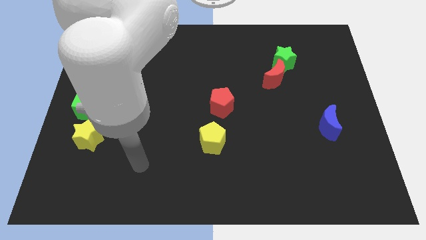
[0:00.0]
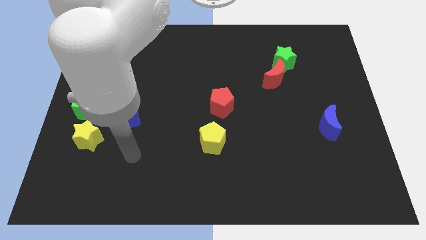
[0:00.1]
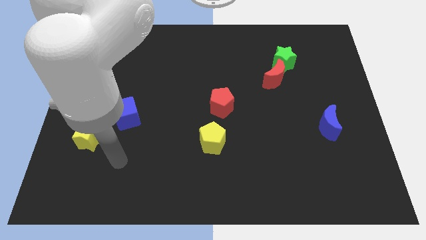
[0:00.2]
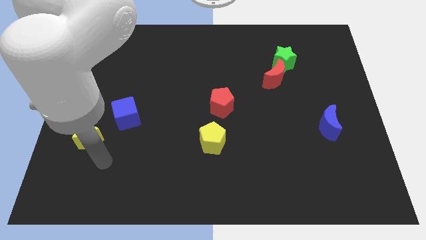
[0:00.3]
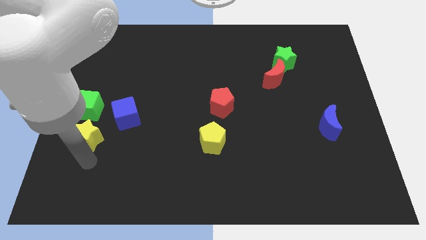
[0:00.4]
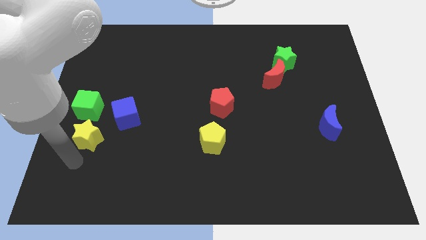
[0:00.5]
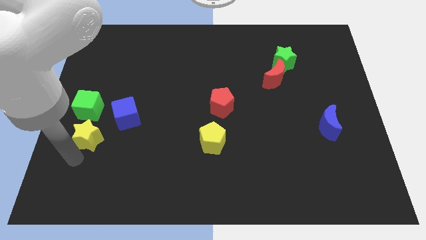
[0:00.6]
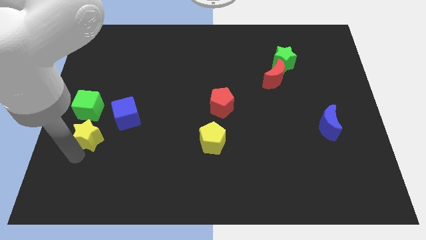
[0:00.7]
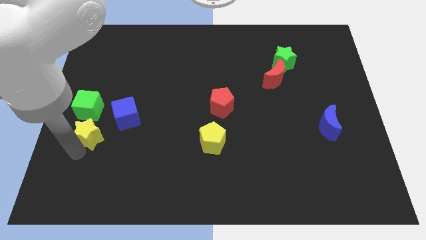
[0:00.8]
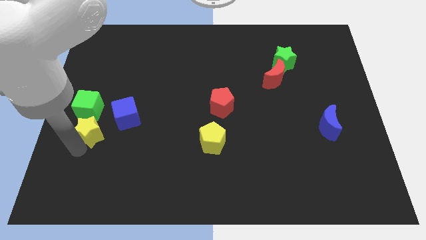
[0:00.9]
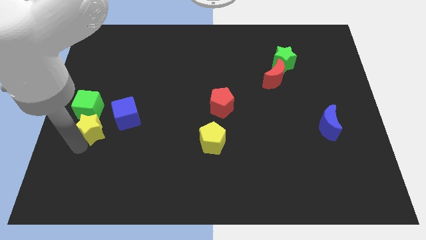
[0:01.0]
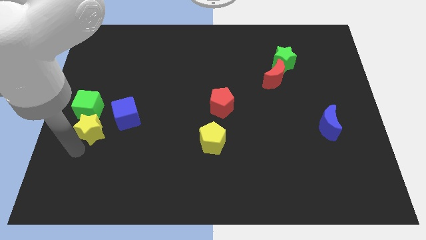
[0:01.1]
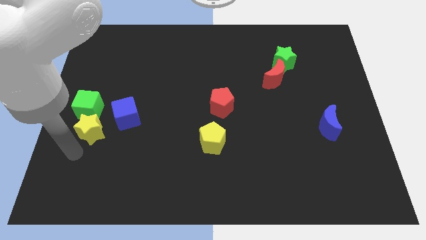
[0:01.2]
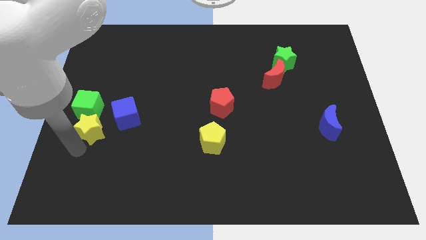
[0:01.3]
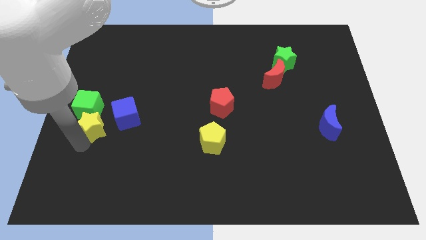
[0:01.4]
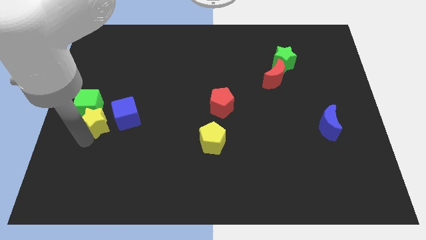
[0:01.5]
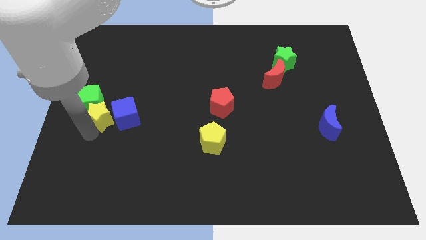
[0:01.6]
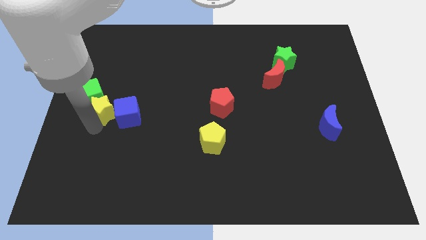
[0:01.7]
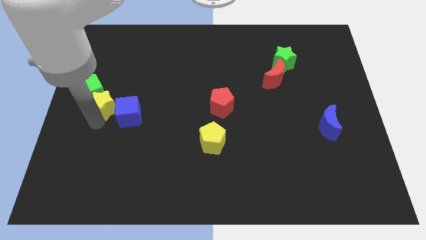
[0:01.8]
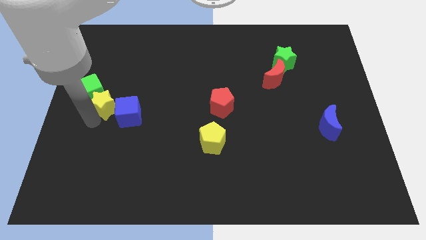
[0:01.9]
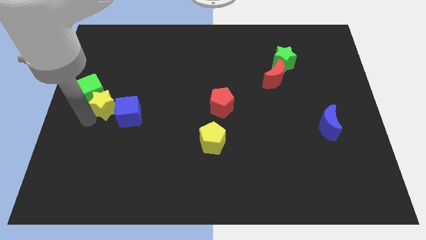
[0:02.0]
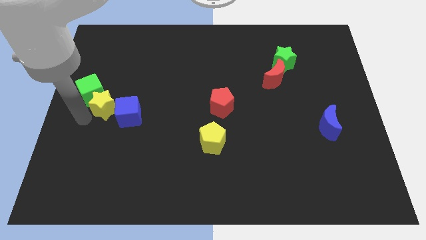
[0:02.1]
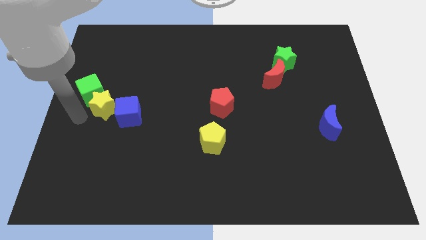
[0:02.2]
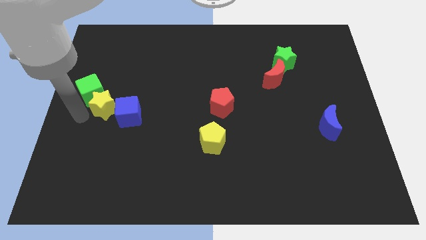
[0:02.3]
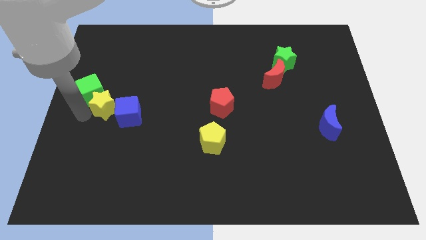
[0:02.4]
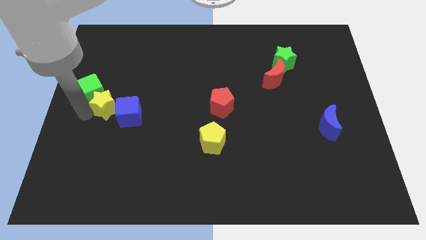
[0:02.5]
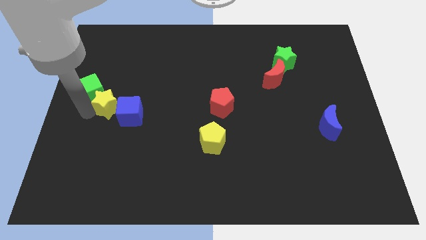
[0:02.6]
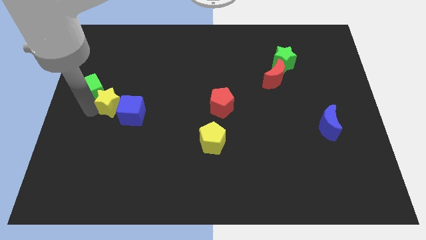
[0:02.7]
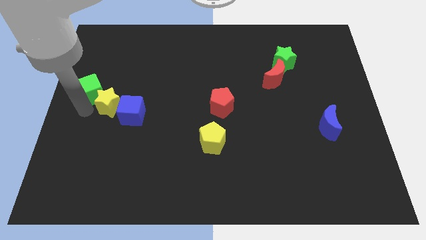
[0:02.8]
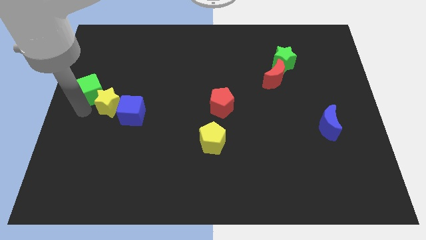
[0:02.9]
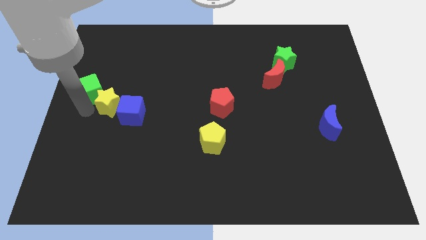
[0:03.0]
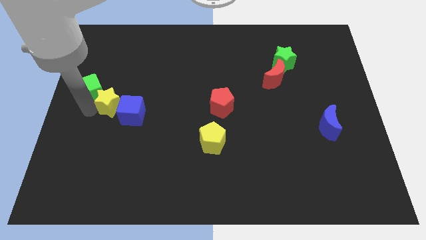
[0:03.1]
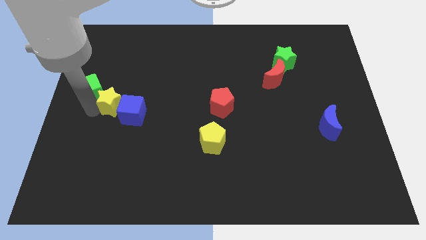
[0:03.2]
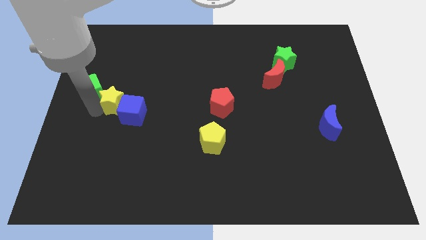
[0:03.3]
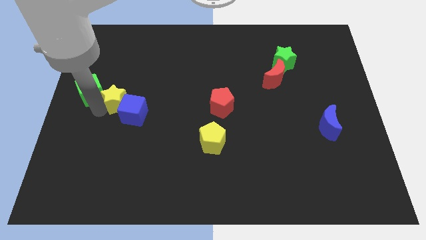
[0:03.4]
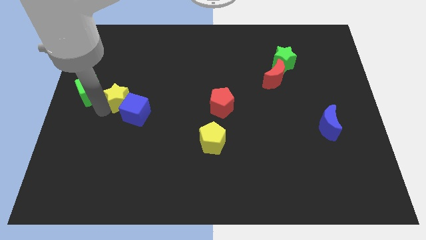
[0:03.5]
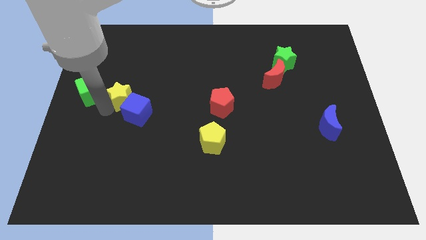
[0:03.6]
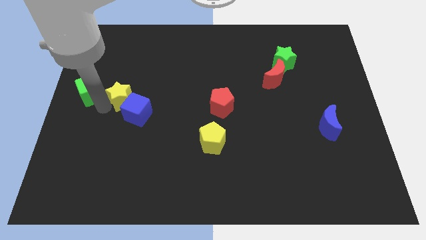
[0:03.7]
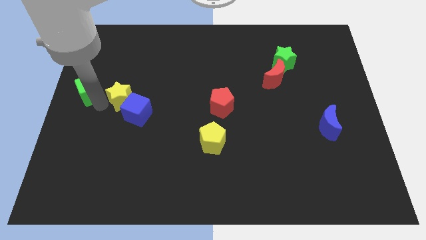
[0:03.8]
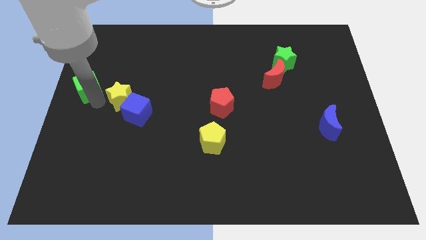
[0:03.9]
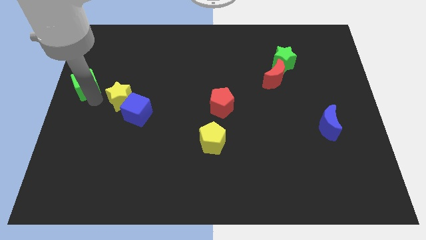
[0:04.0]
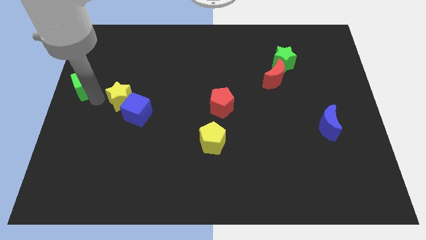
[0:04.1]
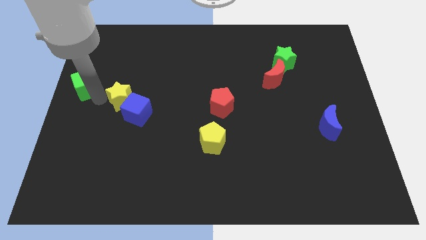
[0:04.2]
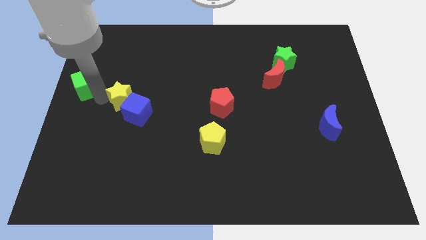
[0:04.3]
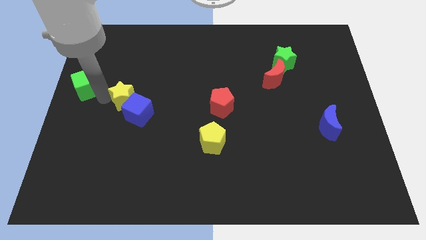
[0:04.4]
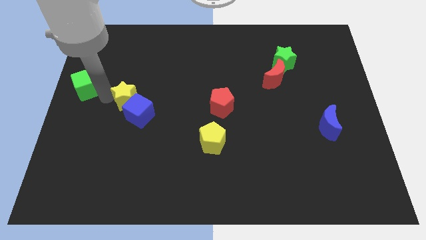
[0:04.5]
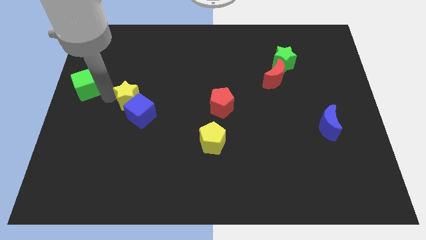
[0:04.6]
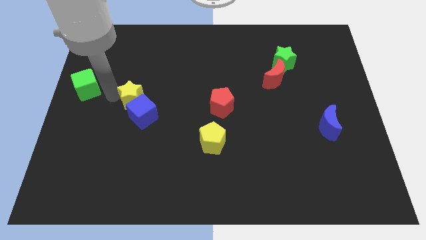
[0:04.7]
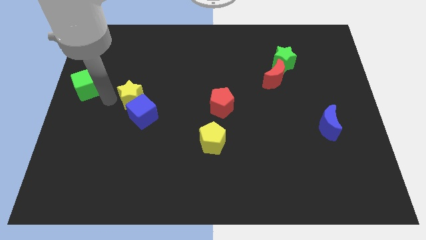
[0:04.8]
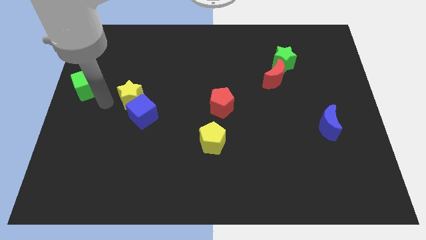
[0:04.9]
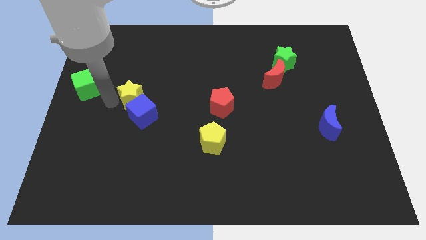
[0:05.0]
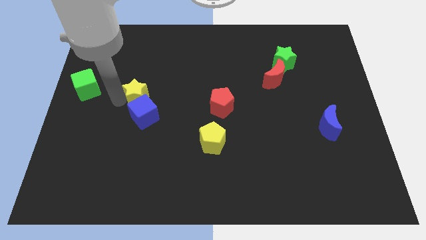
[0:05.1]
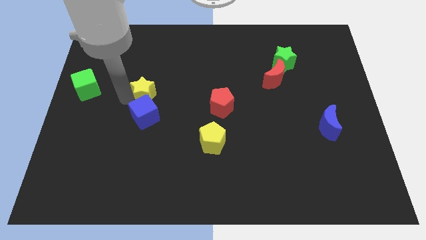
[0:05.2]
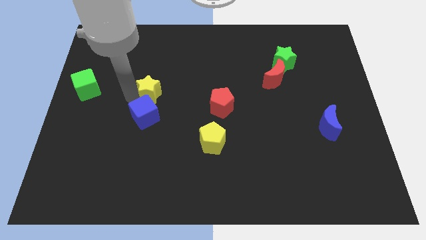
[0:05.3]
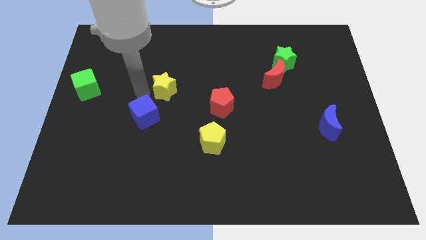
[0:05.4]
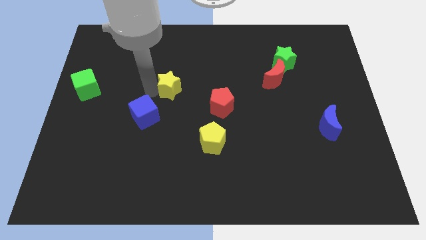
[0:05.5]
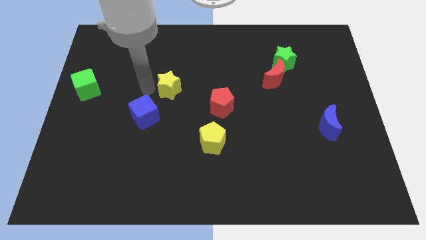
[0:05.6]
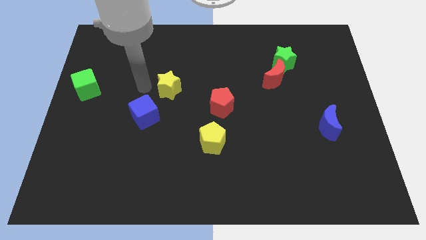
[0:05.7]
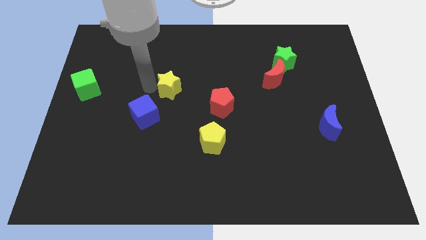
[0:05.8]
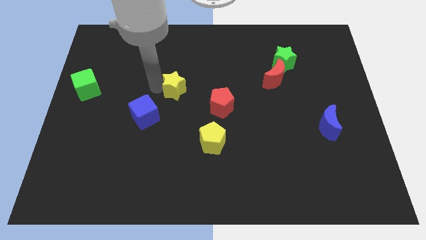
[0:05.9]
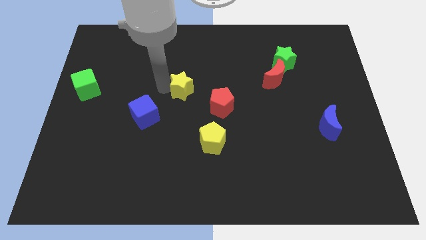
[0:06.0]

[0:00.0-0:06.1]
put the yellow star to the top left of the red pentagon
